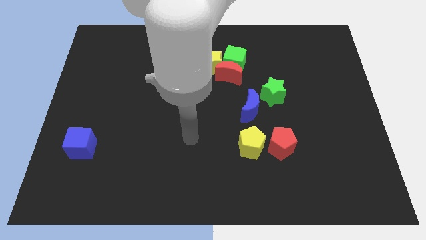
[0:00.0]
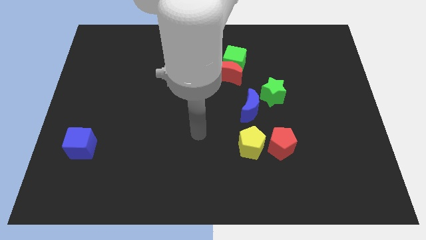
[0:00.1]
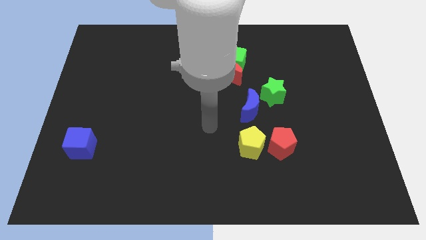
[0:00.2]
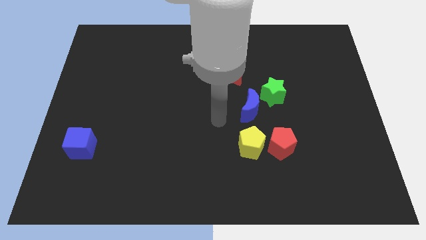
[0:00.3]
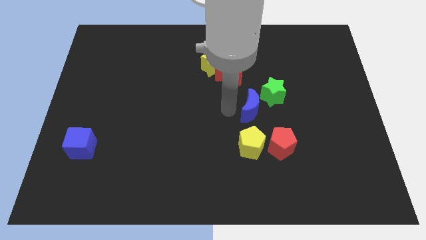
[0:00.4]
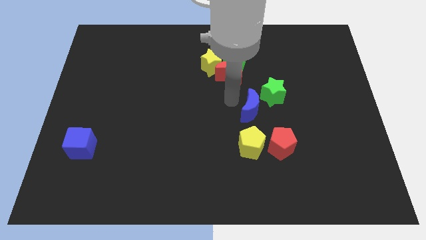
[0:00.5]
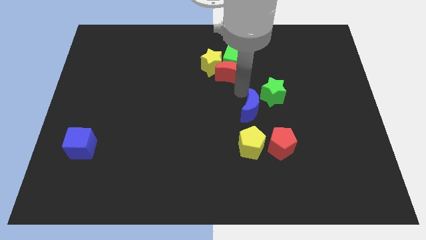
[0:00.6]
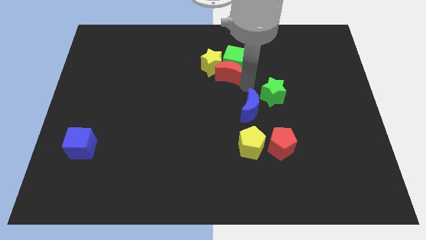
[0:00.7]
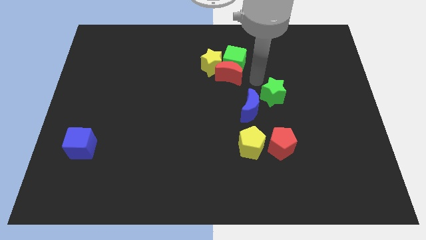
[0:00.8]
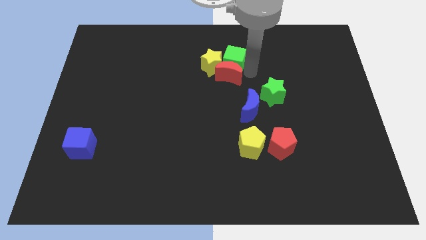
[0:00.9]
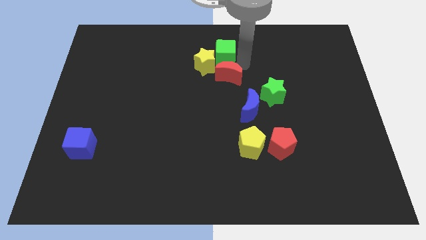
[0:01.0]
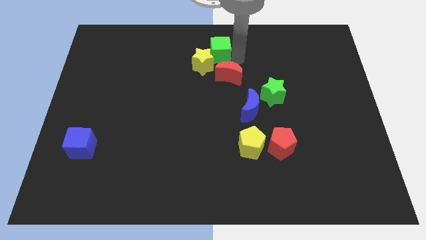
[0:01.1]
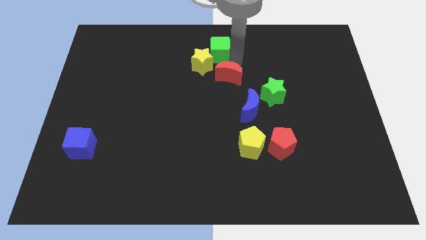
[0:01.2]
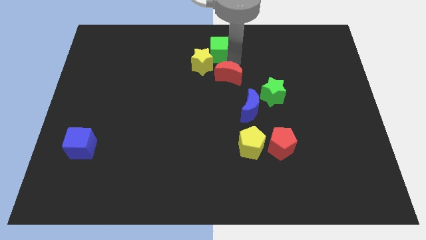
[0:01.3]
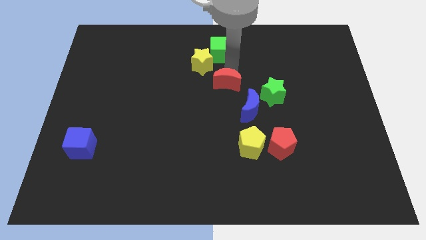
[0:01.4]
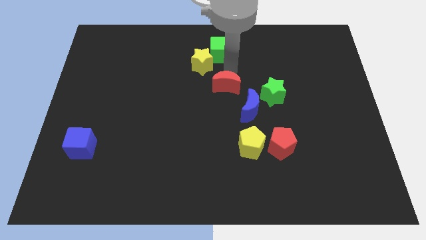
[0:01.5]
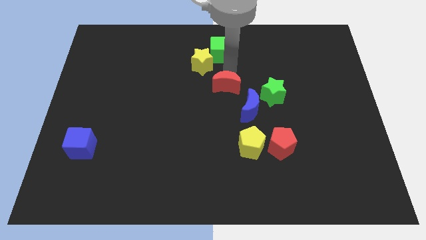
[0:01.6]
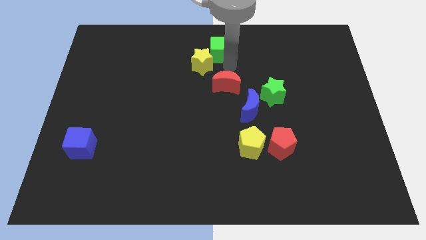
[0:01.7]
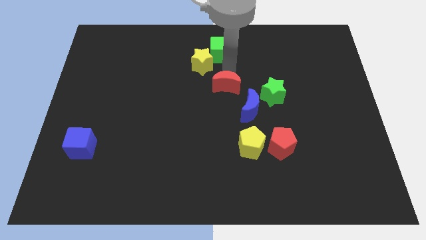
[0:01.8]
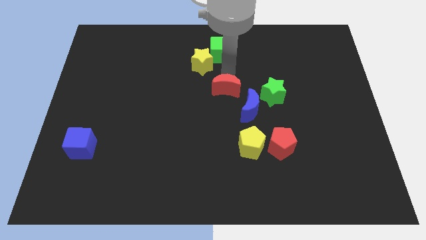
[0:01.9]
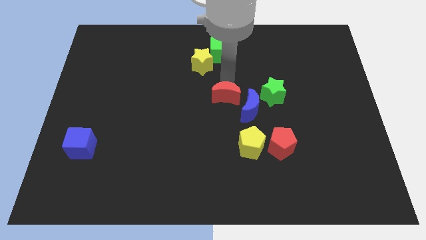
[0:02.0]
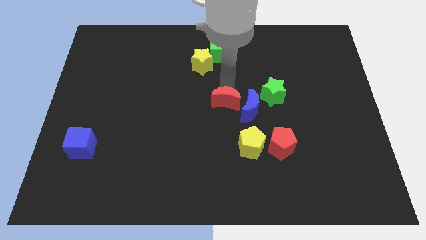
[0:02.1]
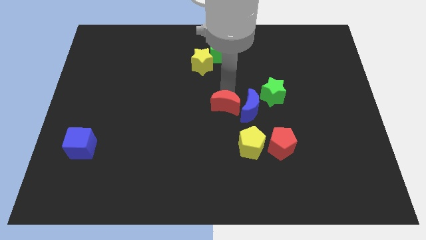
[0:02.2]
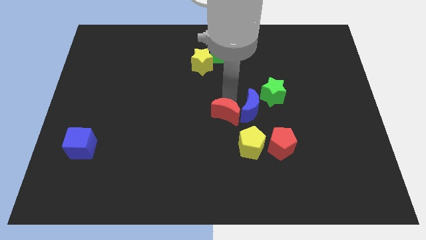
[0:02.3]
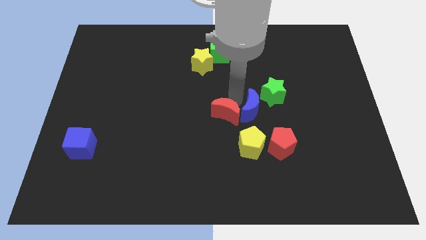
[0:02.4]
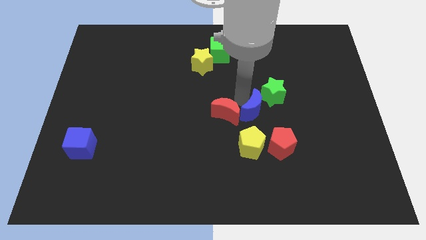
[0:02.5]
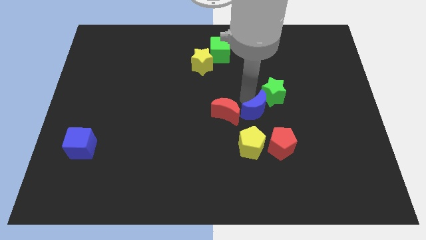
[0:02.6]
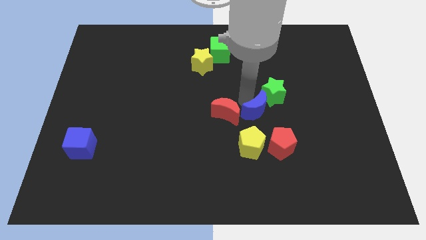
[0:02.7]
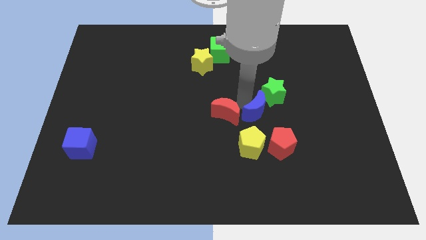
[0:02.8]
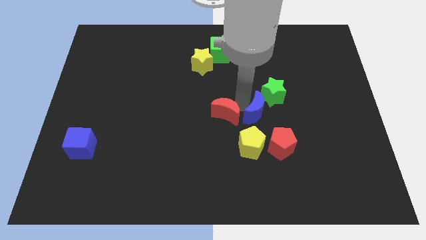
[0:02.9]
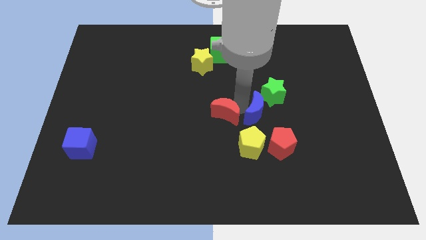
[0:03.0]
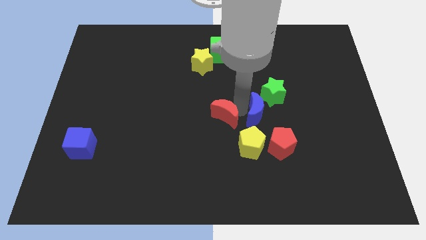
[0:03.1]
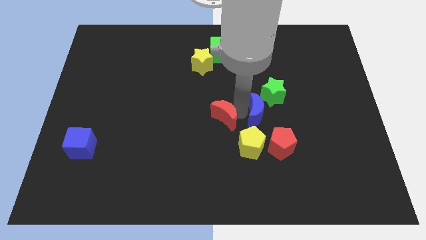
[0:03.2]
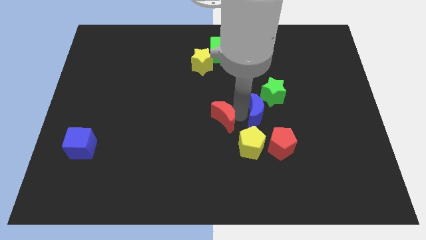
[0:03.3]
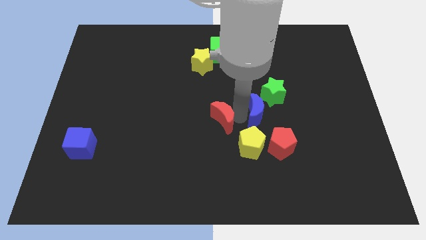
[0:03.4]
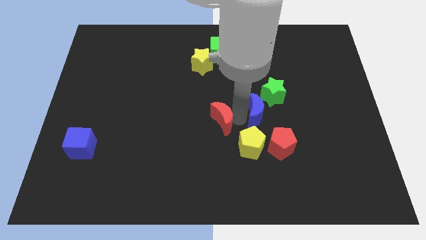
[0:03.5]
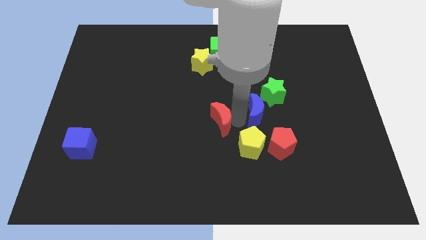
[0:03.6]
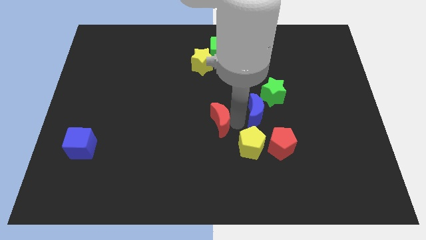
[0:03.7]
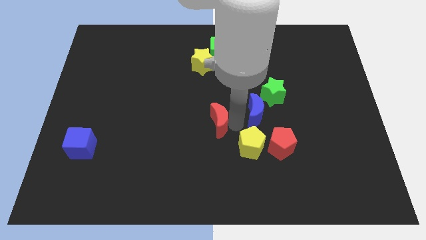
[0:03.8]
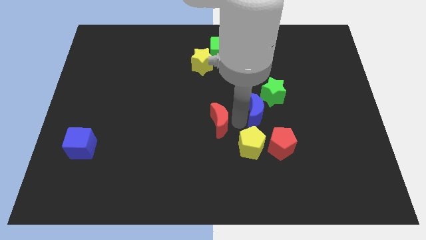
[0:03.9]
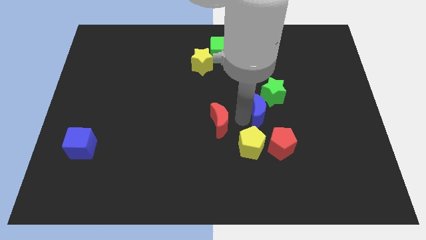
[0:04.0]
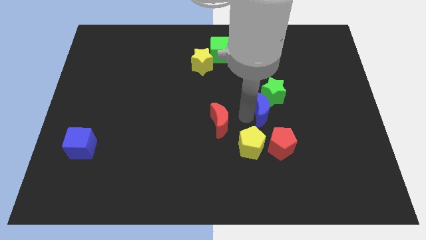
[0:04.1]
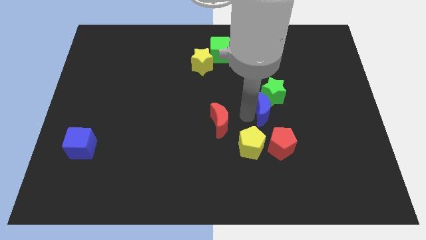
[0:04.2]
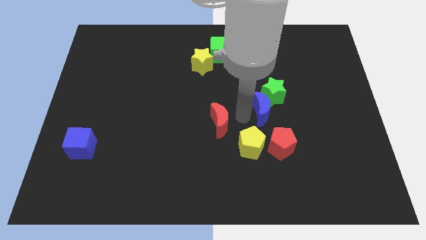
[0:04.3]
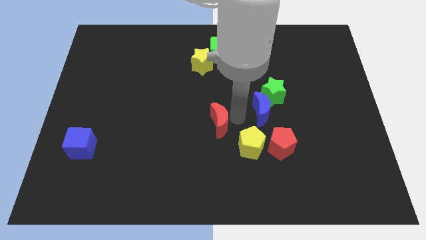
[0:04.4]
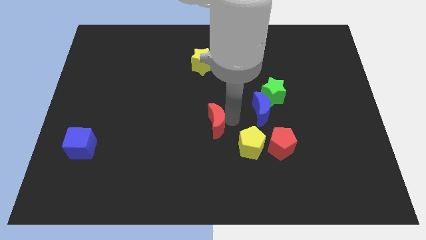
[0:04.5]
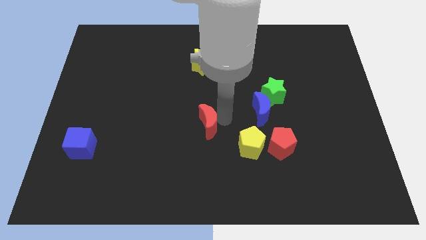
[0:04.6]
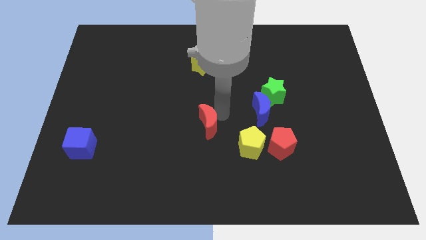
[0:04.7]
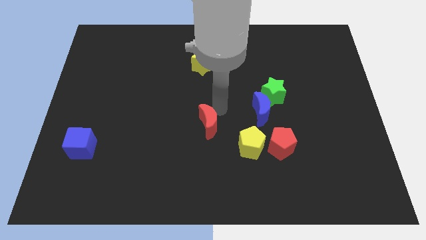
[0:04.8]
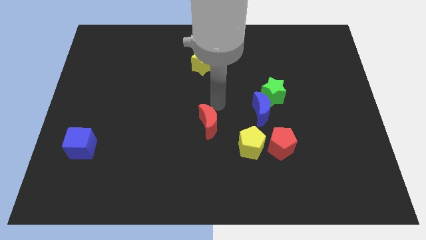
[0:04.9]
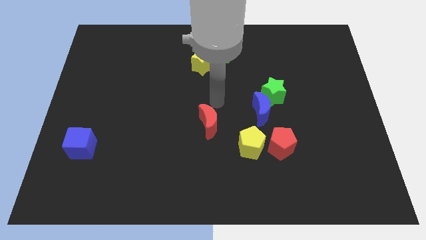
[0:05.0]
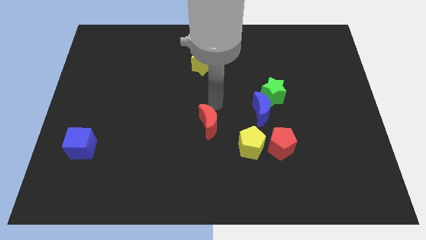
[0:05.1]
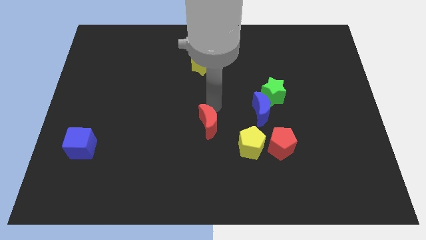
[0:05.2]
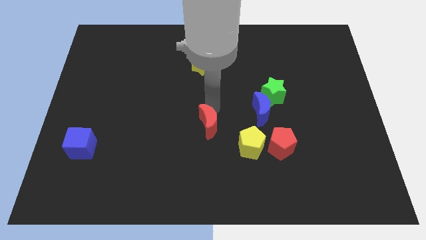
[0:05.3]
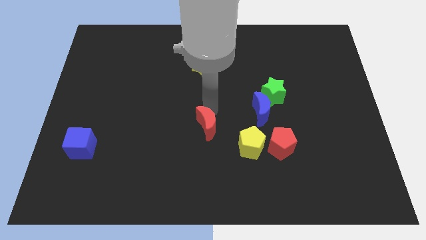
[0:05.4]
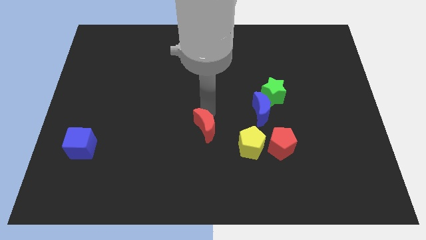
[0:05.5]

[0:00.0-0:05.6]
push the red moon to the left side of the yellow pentagon

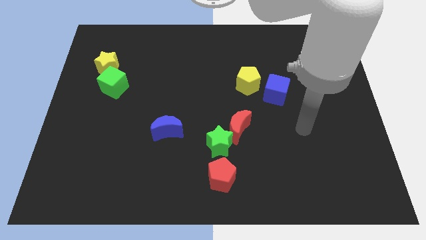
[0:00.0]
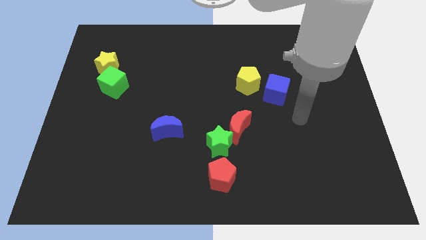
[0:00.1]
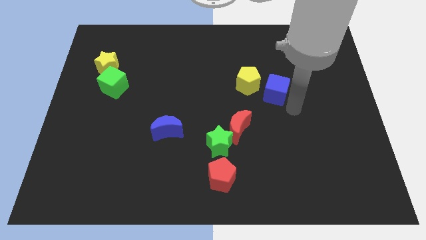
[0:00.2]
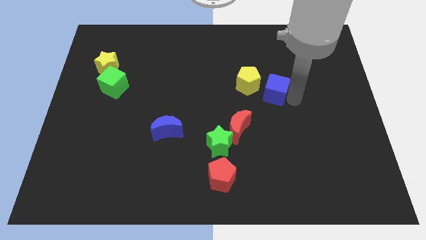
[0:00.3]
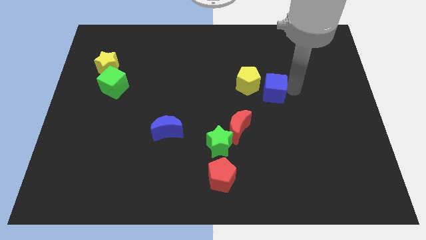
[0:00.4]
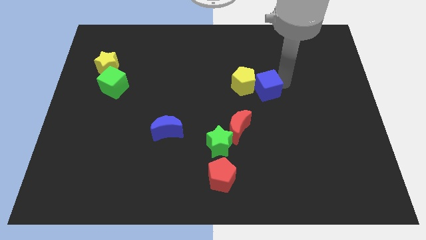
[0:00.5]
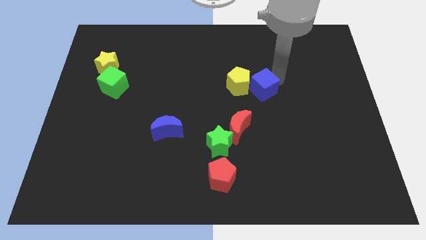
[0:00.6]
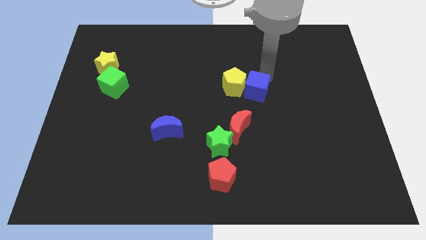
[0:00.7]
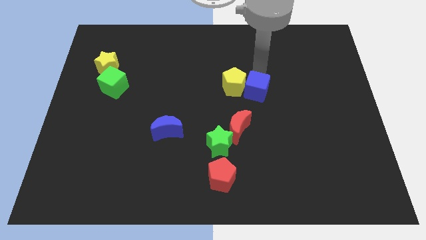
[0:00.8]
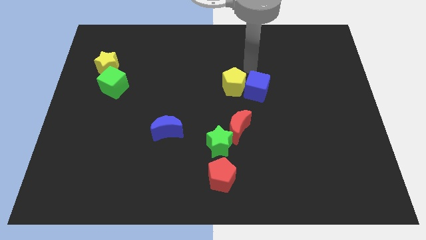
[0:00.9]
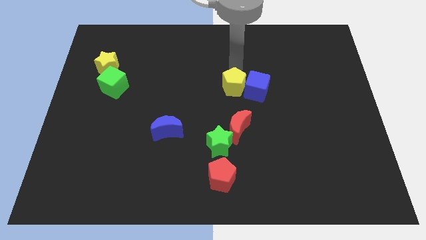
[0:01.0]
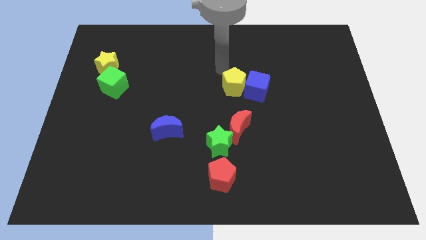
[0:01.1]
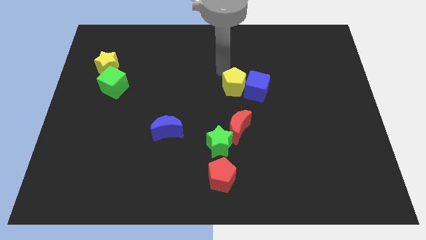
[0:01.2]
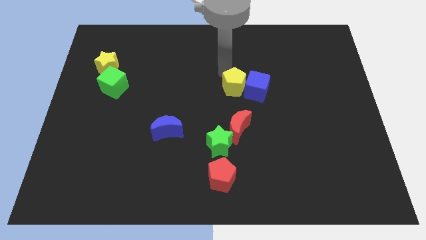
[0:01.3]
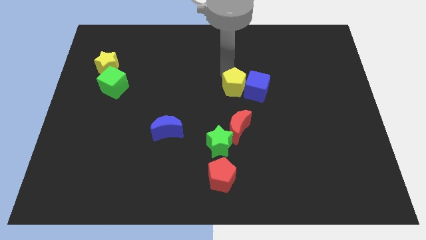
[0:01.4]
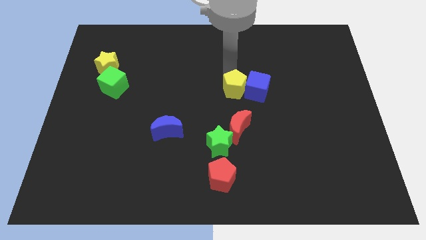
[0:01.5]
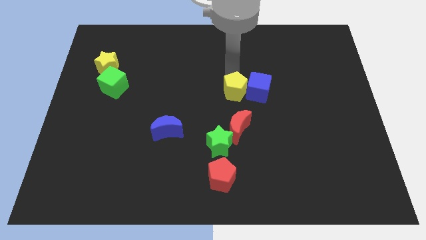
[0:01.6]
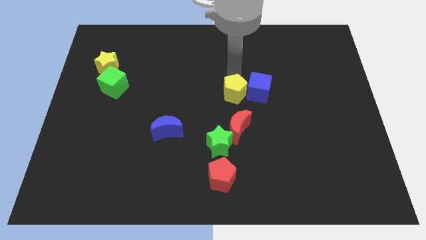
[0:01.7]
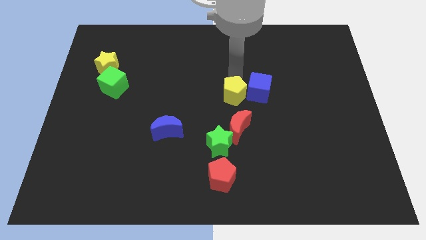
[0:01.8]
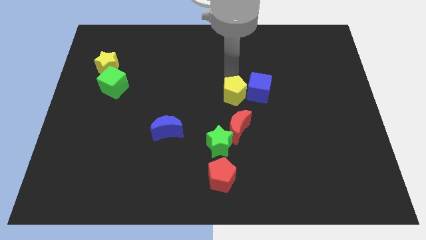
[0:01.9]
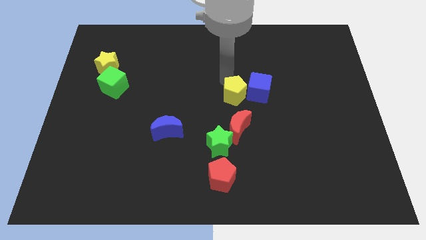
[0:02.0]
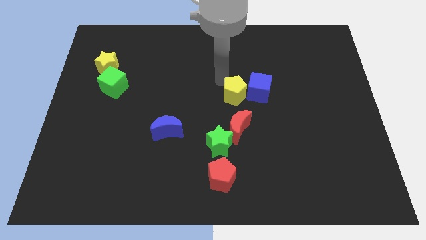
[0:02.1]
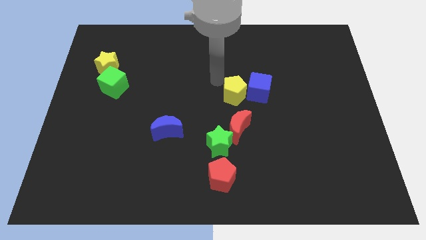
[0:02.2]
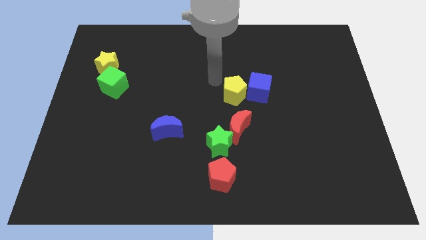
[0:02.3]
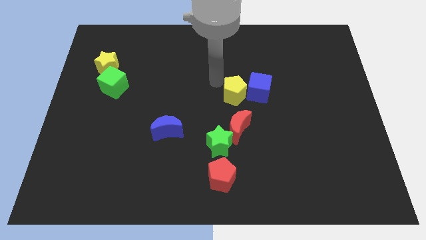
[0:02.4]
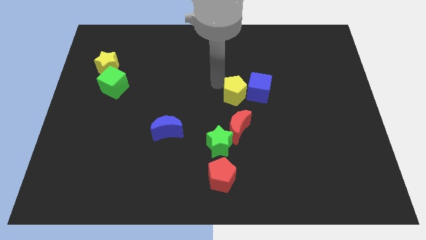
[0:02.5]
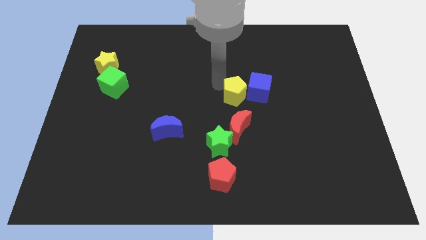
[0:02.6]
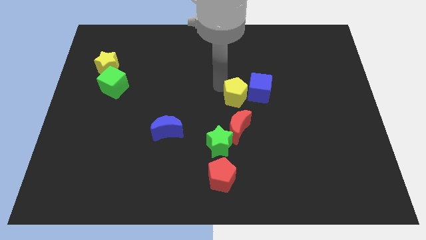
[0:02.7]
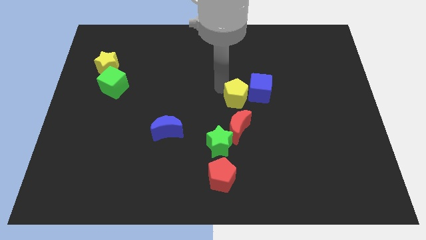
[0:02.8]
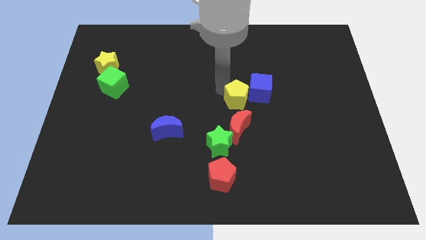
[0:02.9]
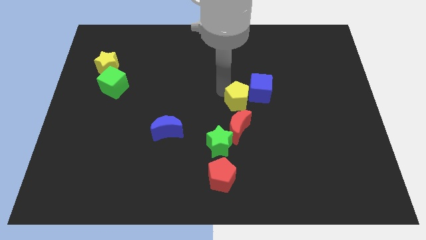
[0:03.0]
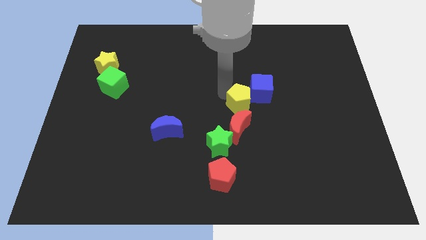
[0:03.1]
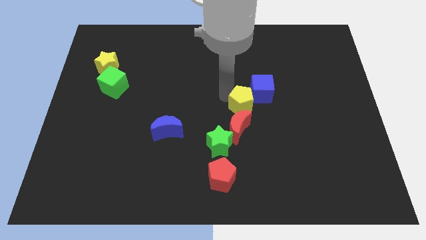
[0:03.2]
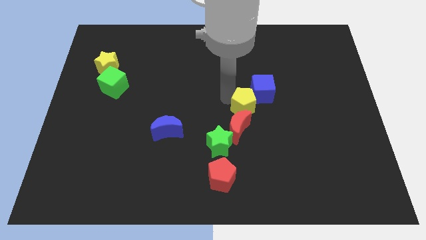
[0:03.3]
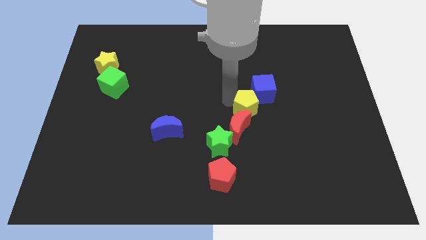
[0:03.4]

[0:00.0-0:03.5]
move the yellow pentagon diagonally up and to the right of the green star
